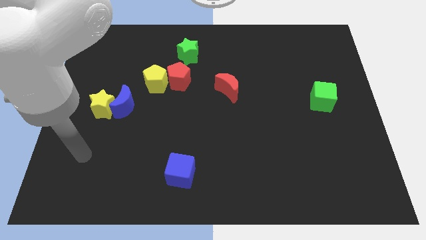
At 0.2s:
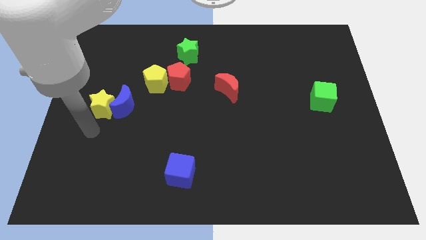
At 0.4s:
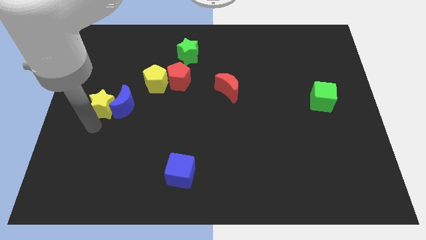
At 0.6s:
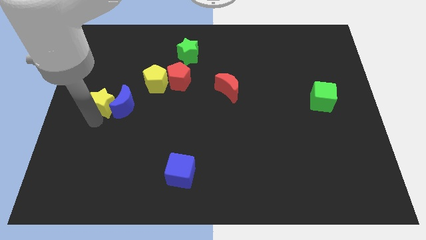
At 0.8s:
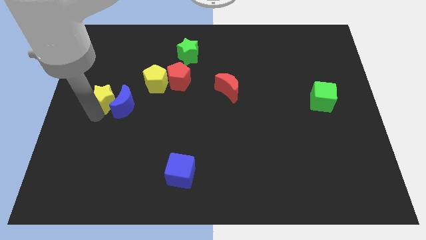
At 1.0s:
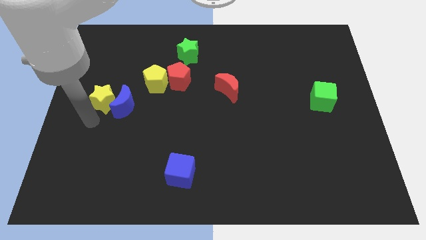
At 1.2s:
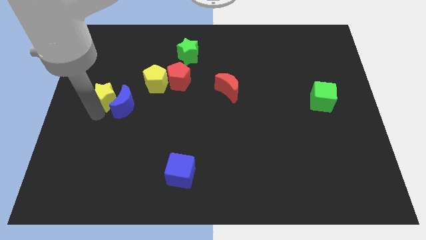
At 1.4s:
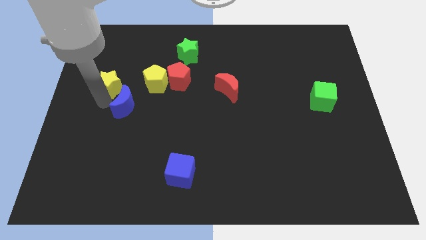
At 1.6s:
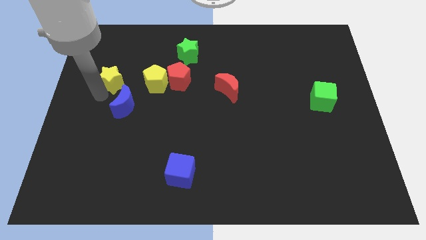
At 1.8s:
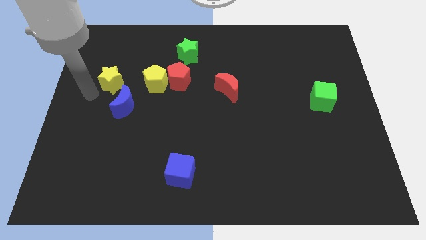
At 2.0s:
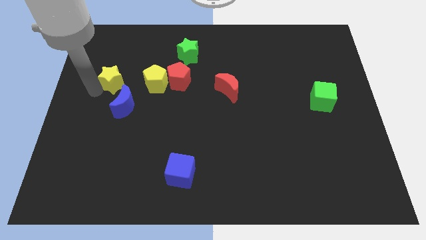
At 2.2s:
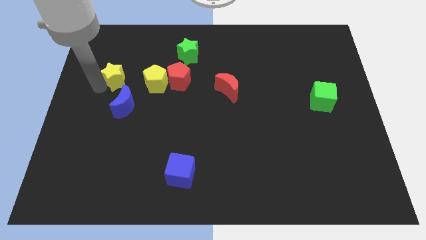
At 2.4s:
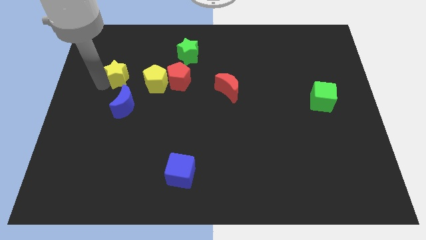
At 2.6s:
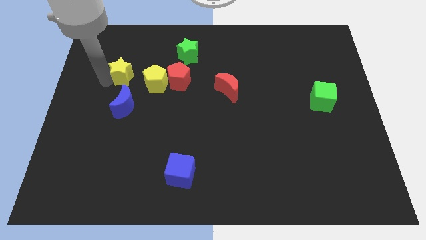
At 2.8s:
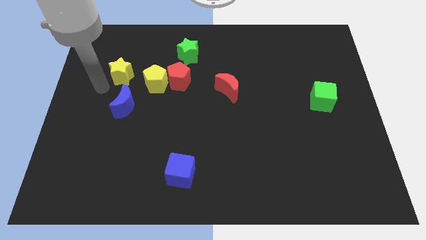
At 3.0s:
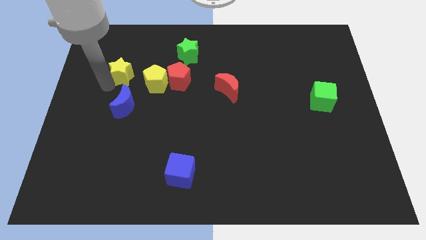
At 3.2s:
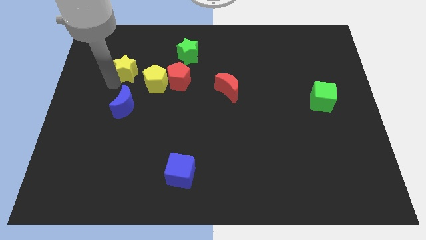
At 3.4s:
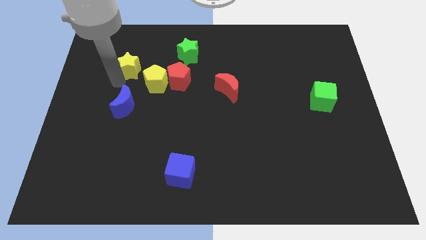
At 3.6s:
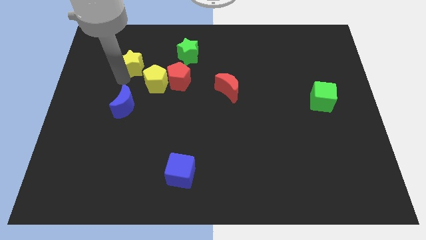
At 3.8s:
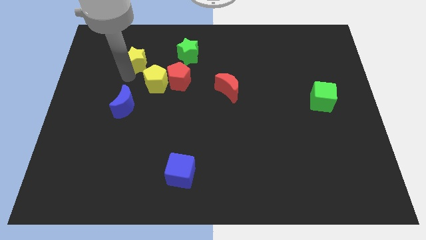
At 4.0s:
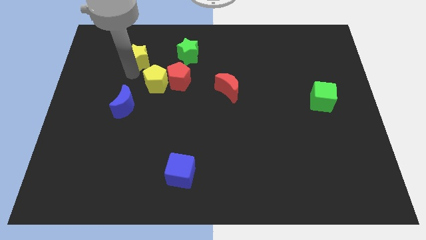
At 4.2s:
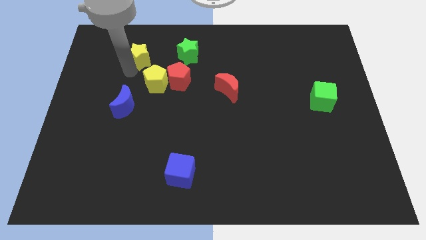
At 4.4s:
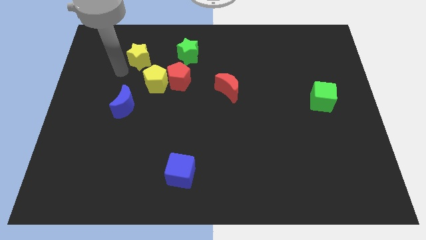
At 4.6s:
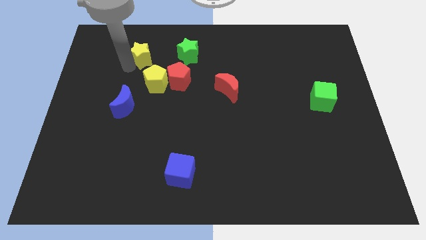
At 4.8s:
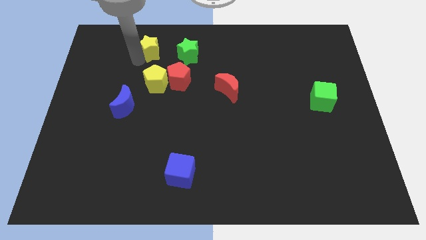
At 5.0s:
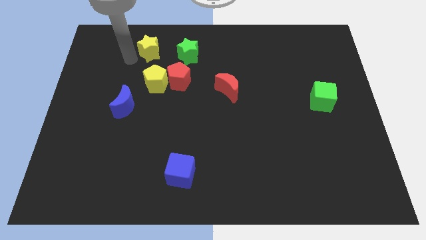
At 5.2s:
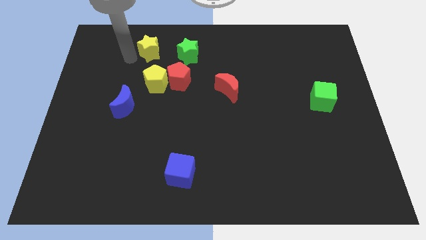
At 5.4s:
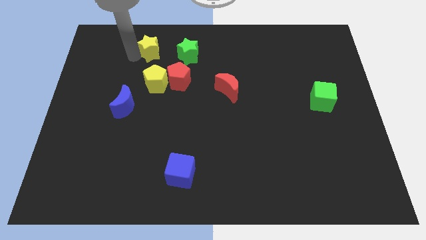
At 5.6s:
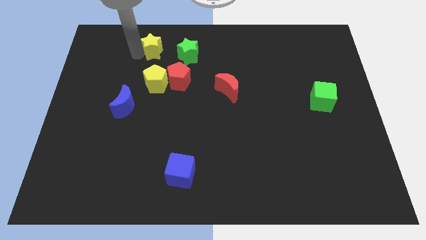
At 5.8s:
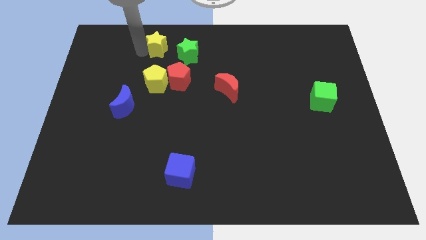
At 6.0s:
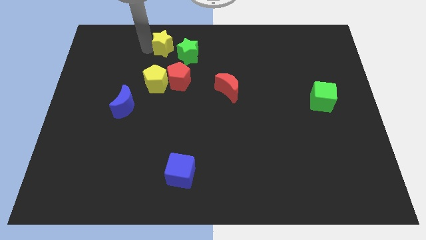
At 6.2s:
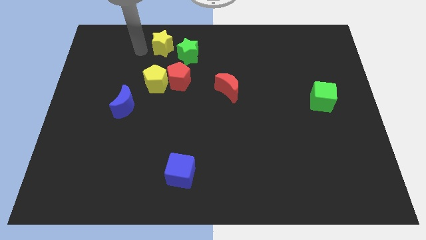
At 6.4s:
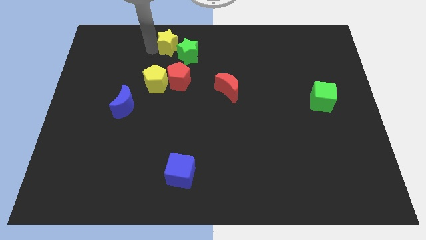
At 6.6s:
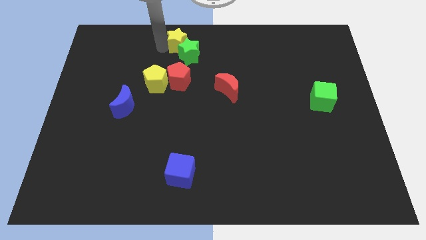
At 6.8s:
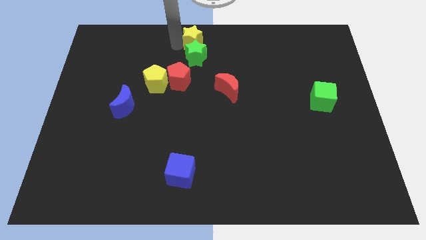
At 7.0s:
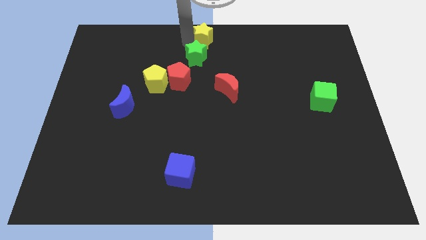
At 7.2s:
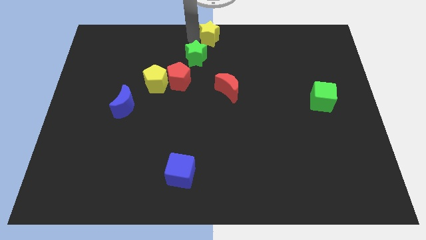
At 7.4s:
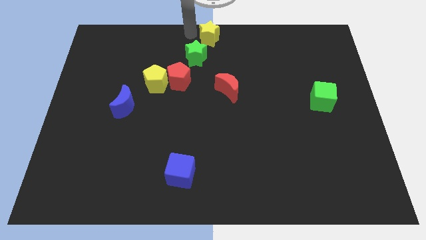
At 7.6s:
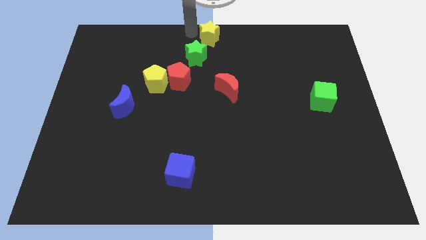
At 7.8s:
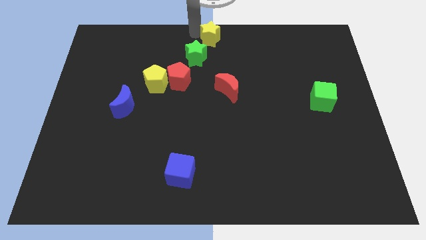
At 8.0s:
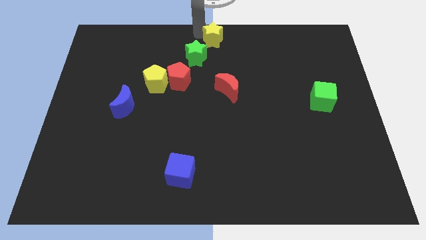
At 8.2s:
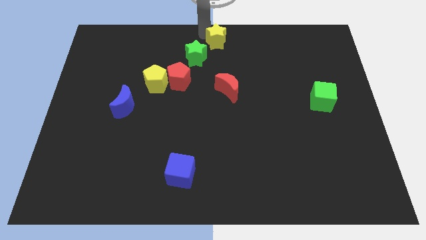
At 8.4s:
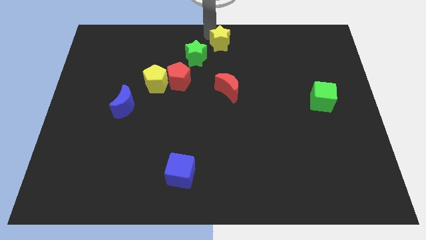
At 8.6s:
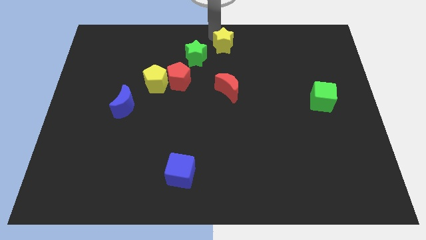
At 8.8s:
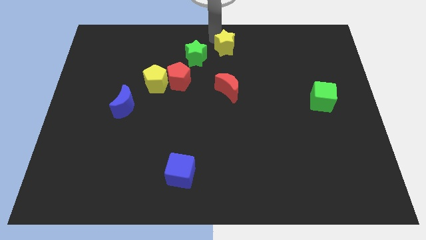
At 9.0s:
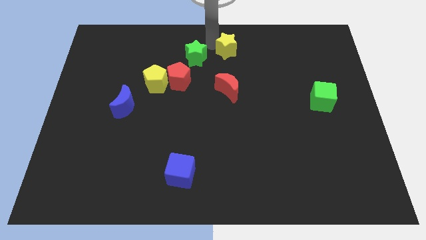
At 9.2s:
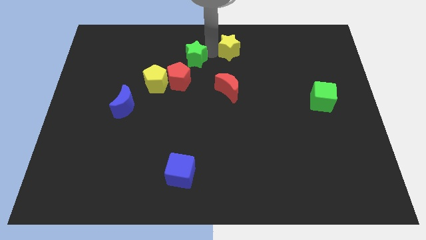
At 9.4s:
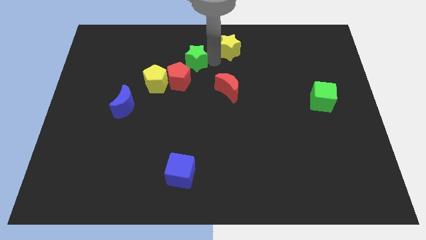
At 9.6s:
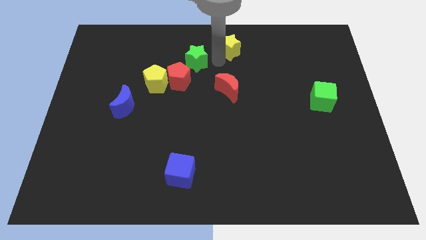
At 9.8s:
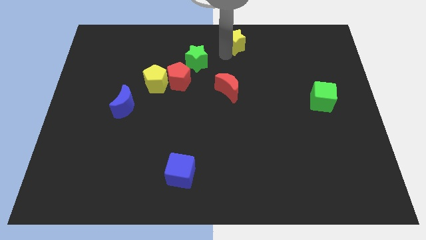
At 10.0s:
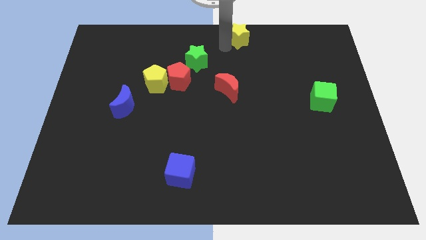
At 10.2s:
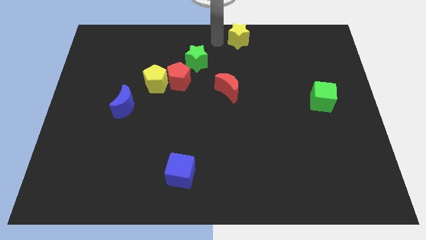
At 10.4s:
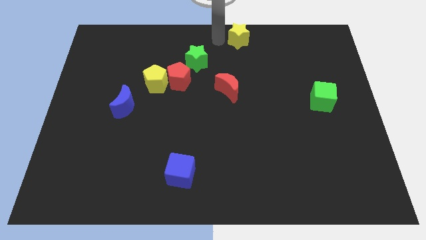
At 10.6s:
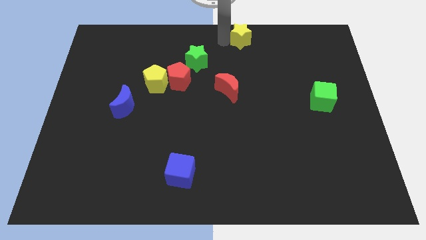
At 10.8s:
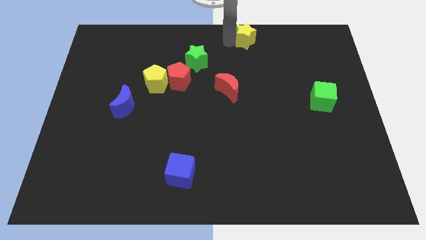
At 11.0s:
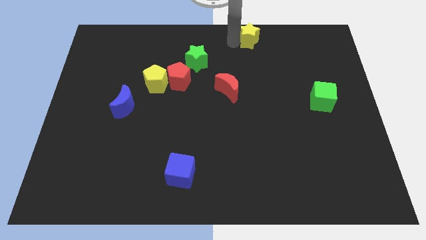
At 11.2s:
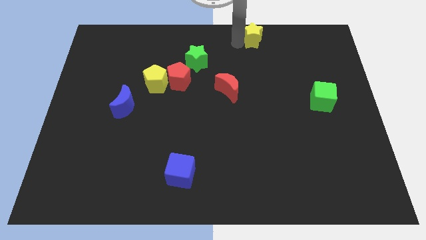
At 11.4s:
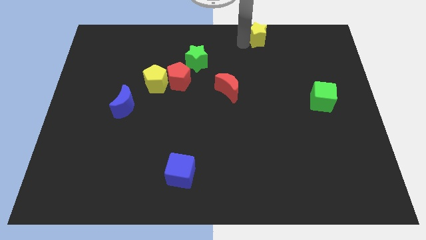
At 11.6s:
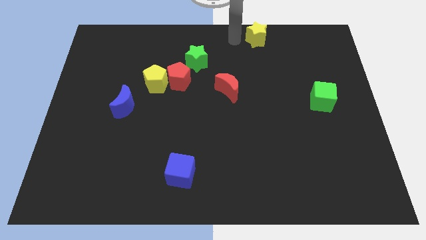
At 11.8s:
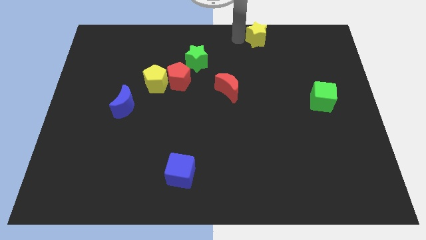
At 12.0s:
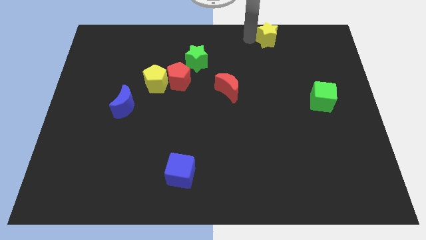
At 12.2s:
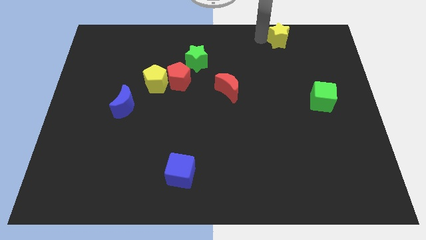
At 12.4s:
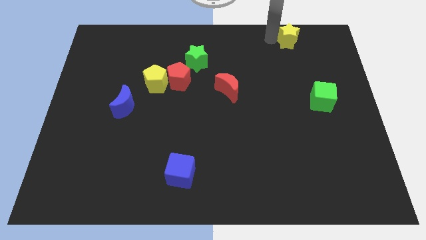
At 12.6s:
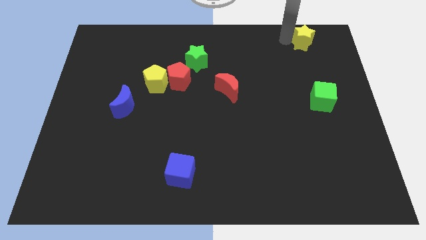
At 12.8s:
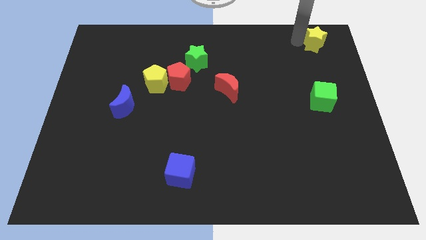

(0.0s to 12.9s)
slide the yellow star to the top right of the board
